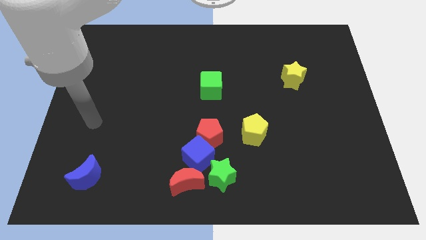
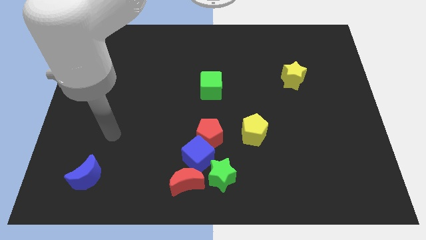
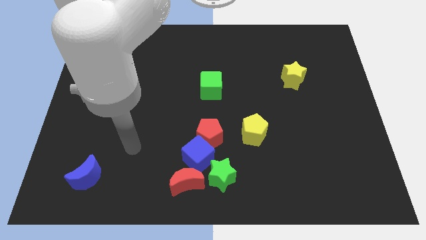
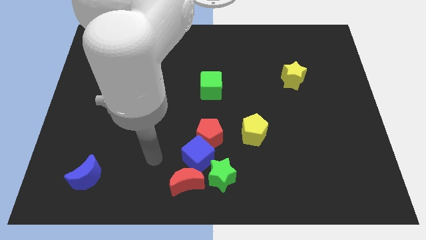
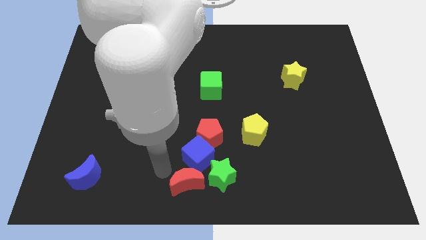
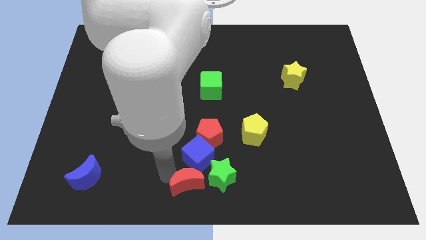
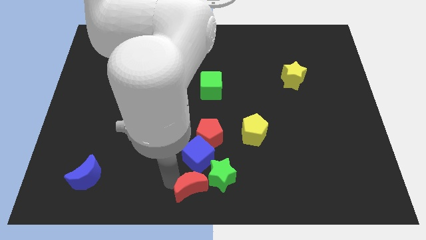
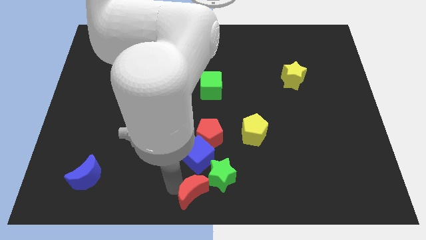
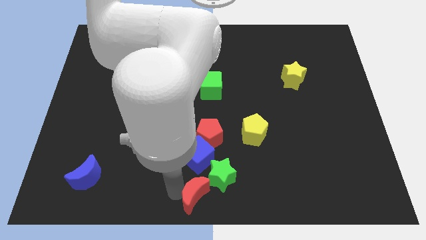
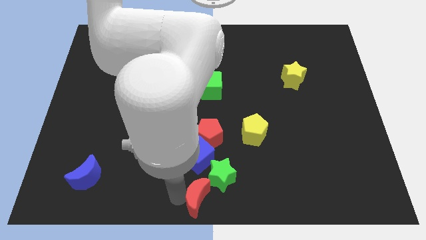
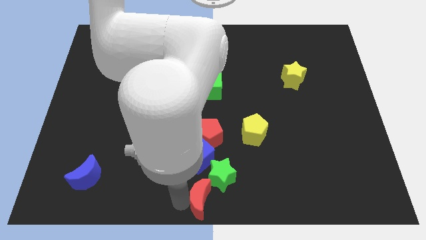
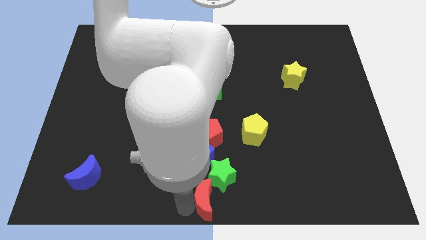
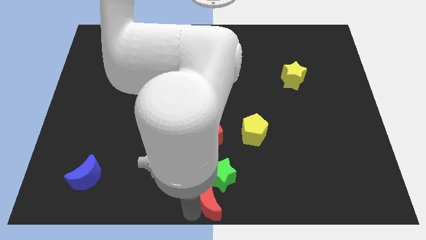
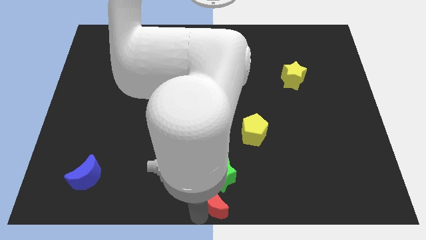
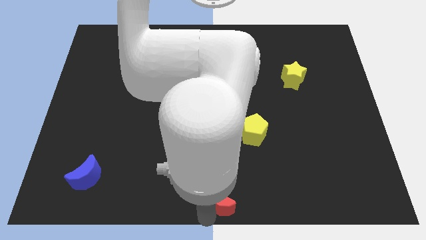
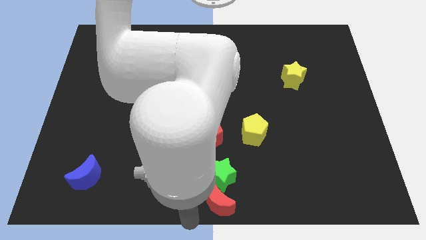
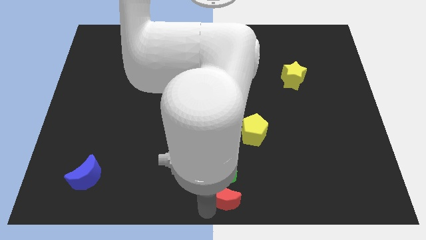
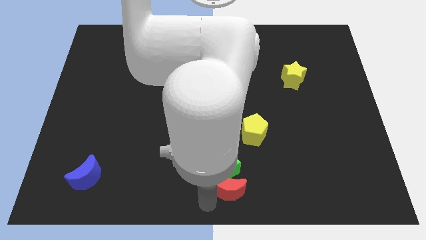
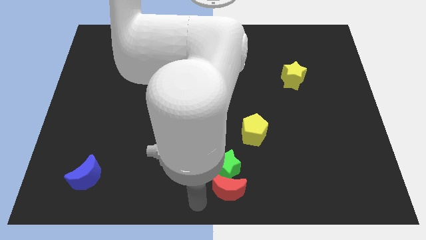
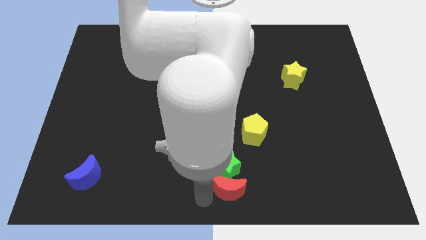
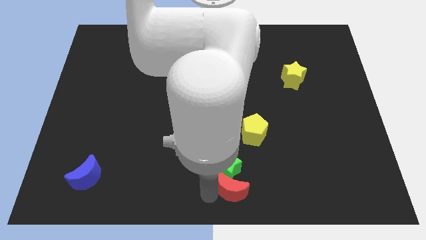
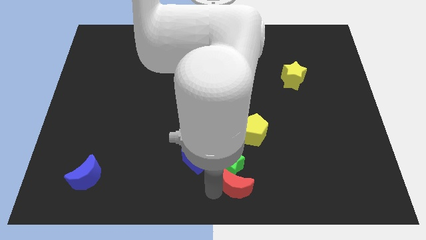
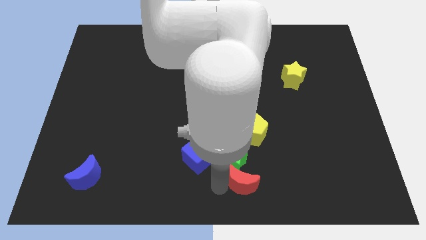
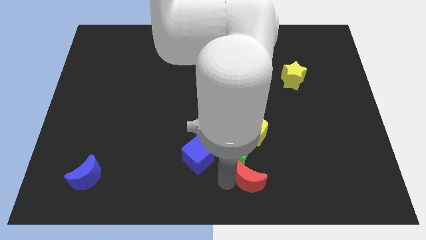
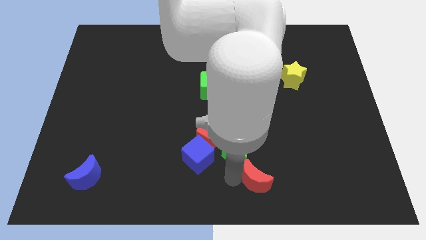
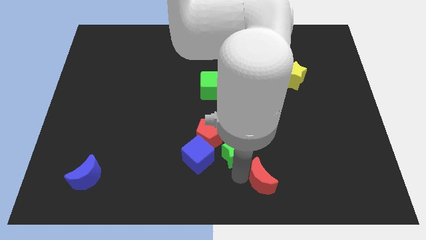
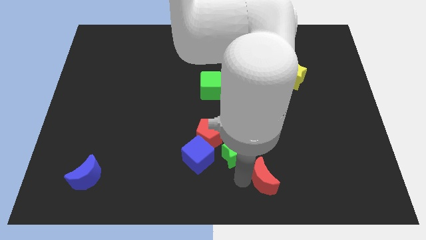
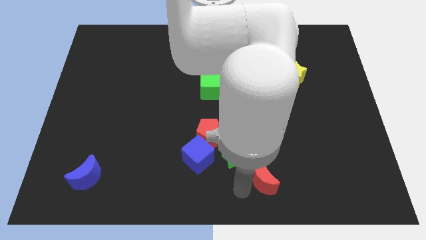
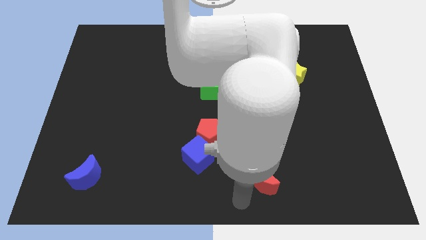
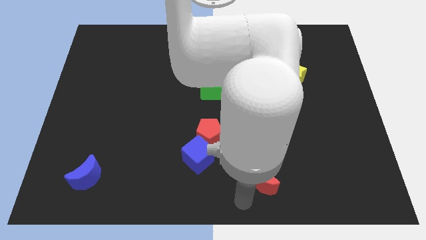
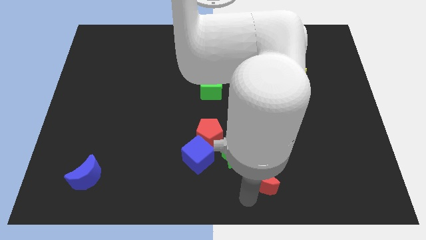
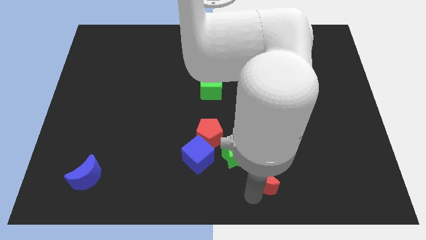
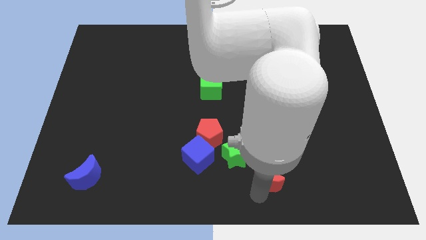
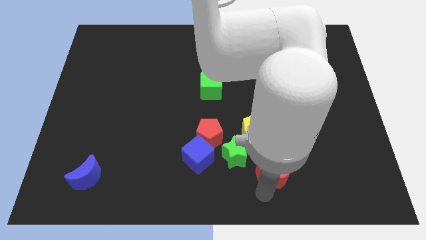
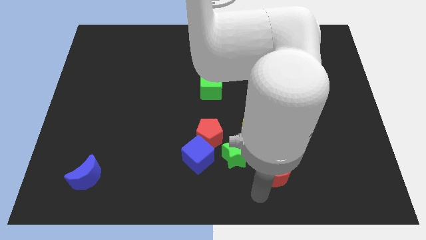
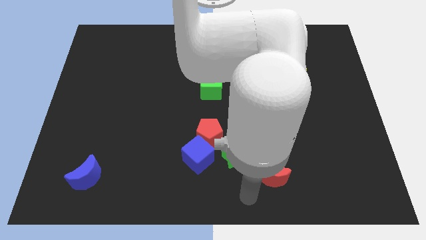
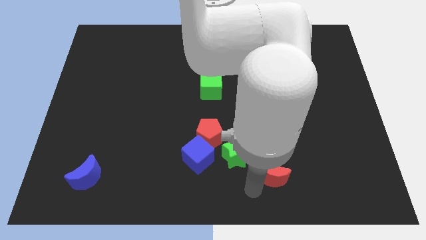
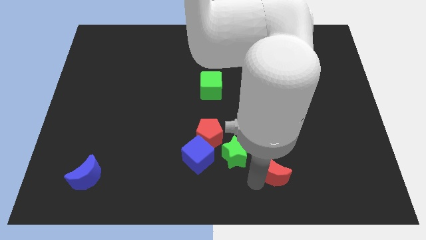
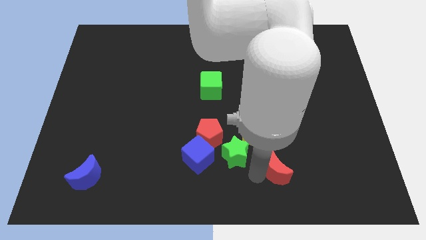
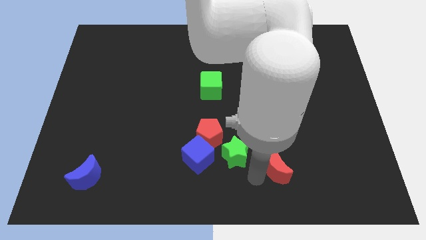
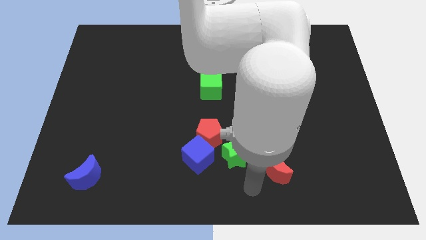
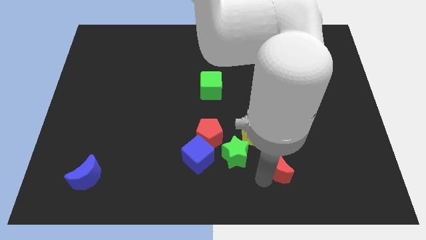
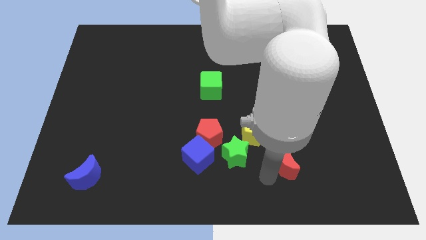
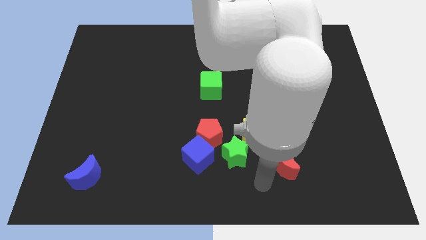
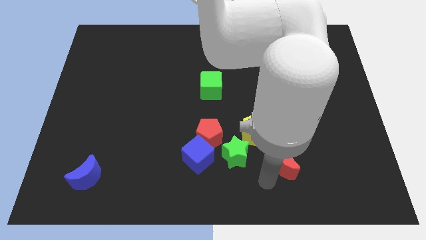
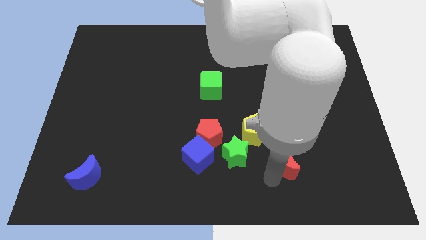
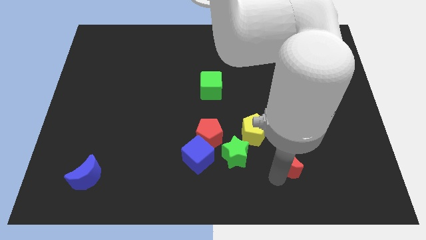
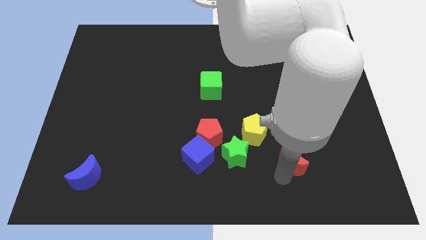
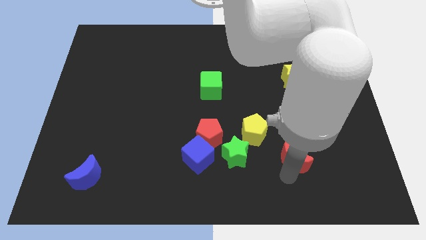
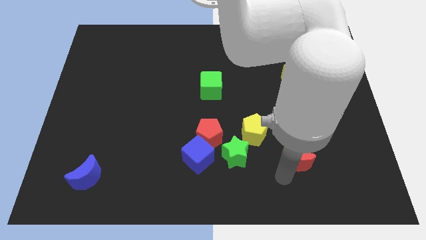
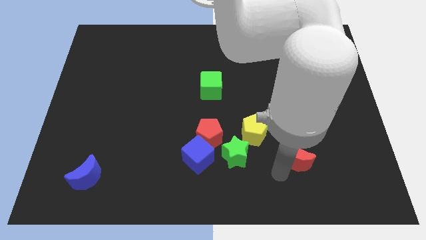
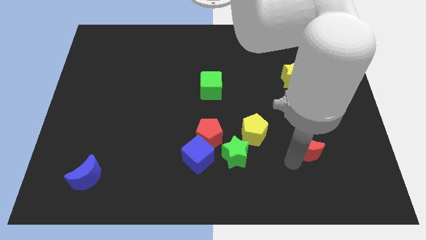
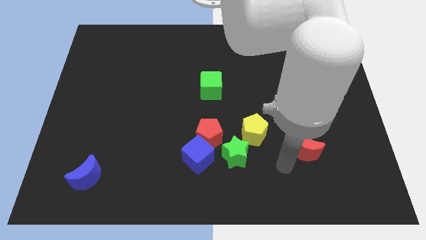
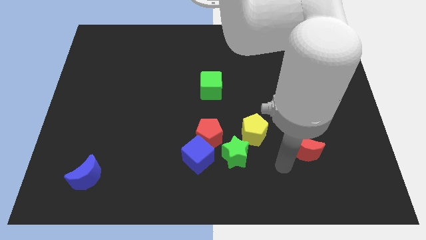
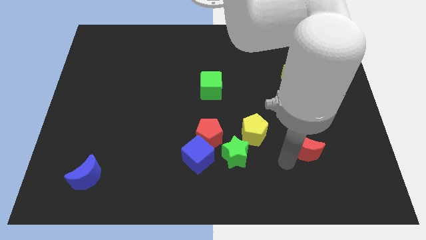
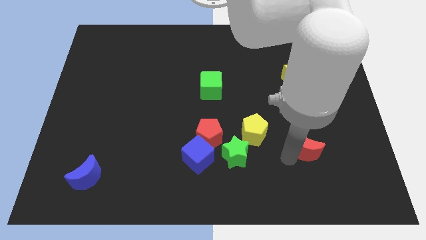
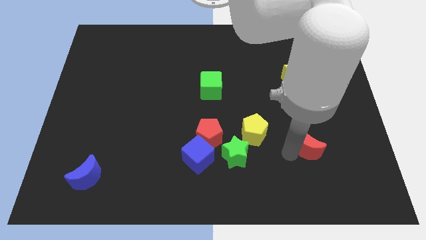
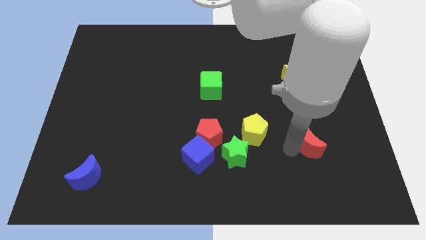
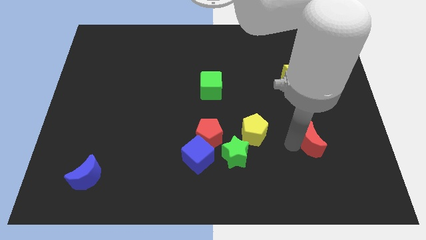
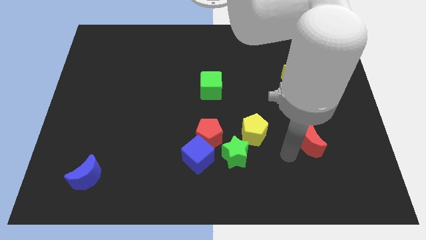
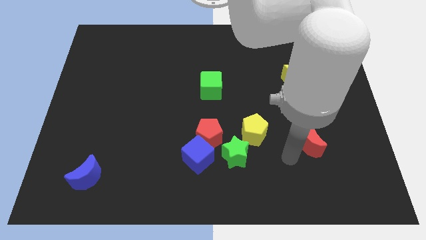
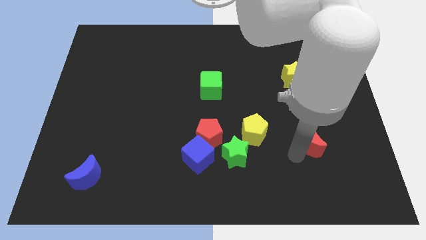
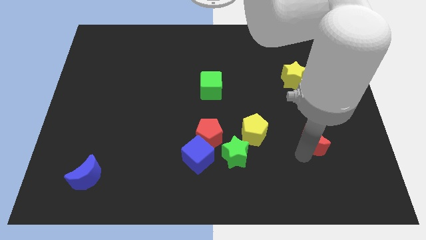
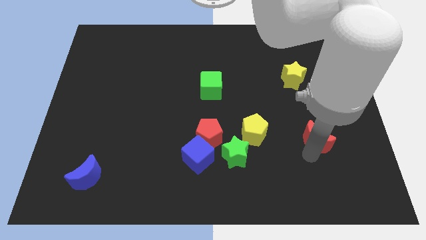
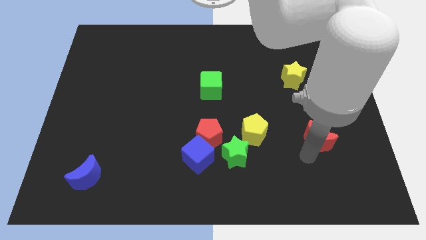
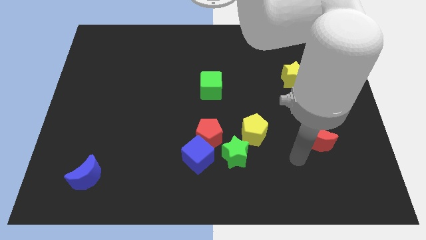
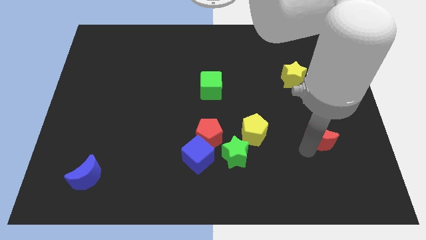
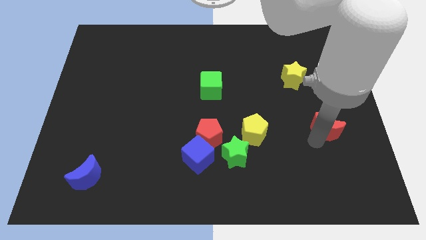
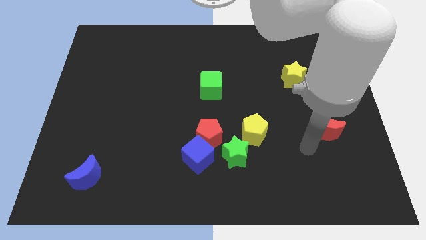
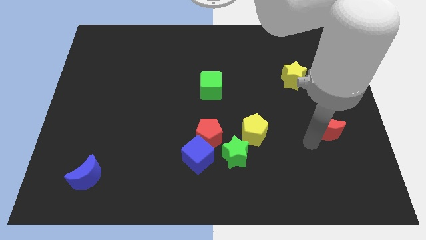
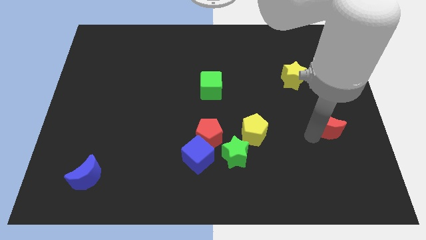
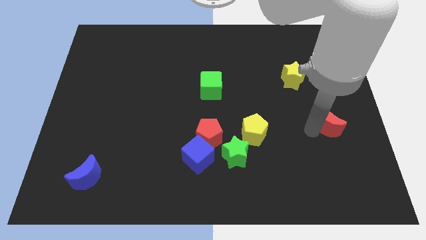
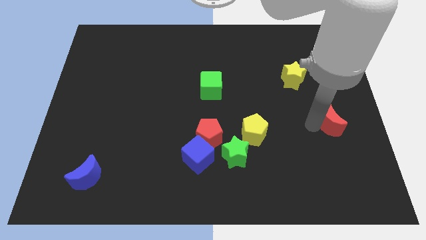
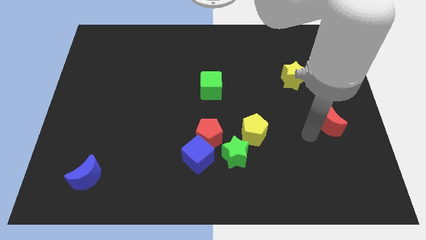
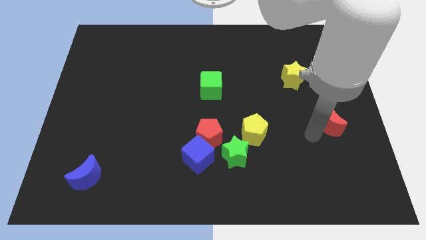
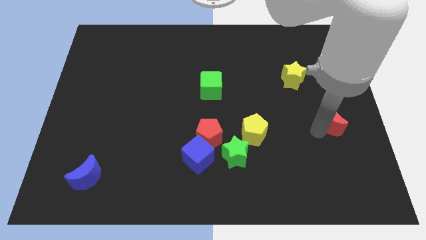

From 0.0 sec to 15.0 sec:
slide the red moon to the right side of the board

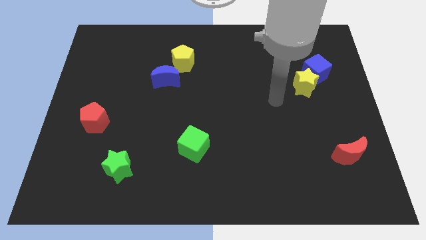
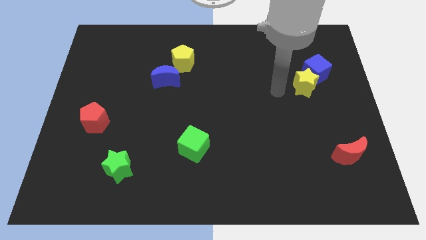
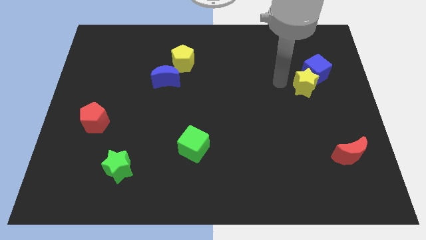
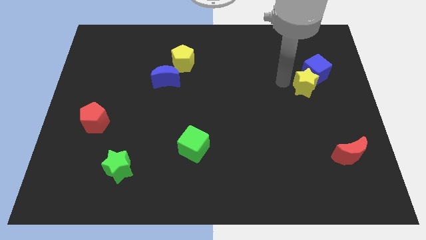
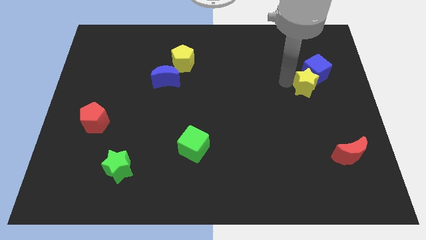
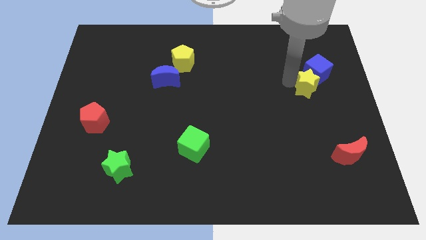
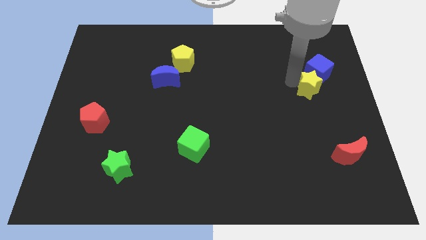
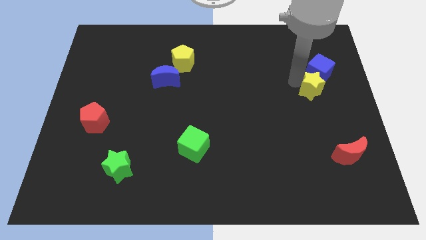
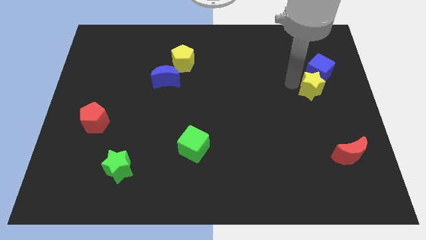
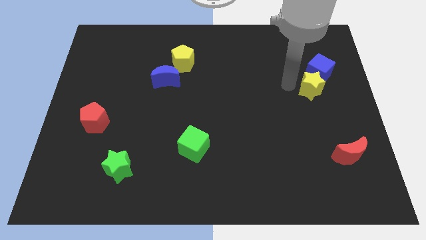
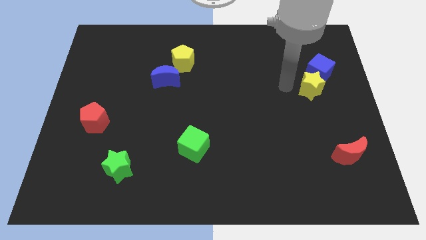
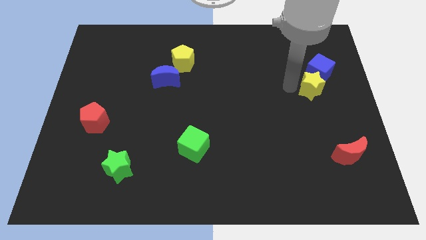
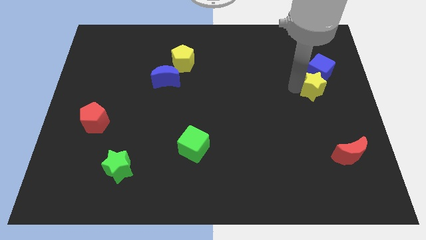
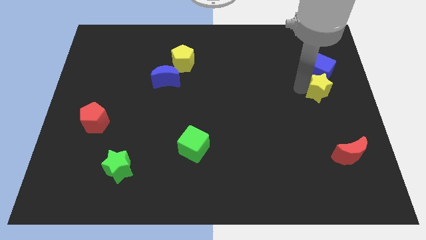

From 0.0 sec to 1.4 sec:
put the yellow star to the right side
